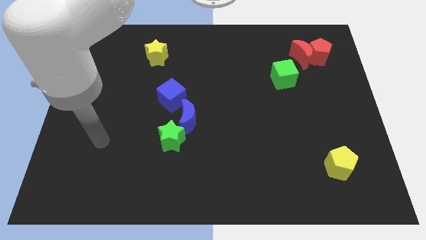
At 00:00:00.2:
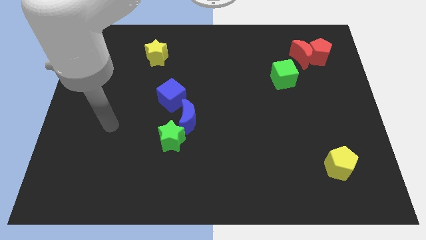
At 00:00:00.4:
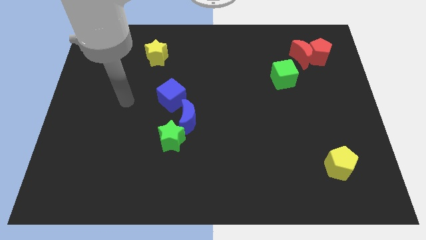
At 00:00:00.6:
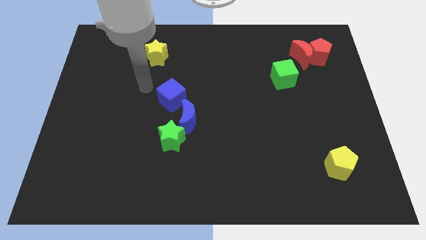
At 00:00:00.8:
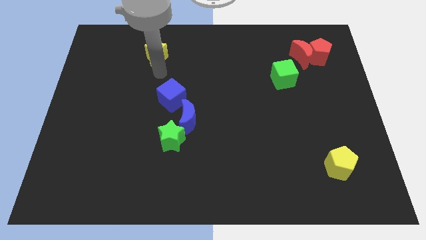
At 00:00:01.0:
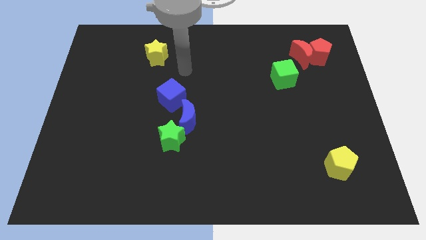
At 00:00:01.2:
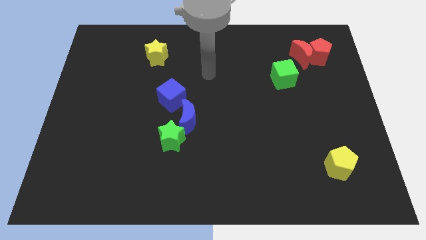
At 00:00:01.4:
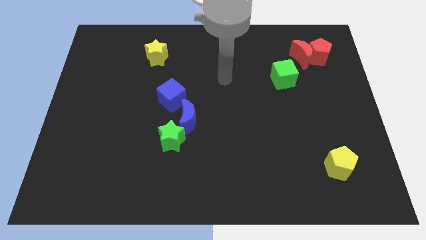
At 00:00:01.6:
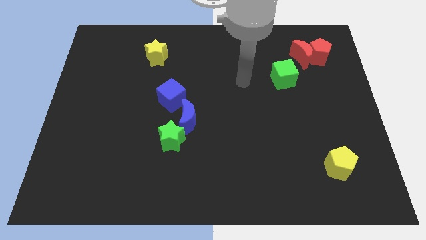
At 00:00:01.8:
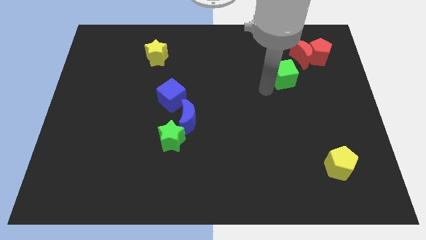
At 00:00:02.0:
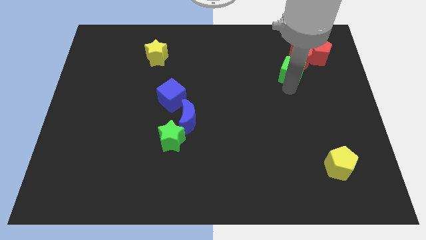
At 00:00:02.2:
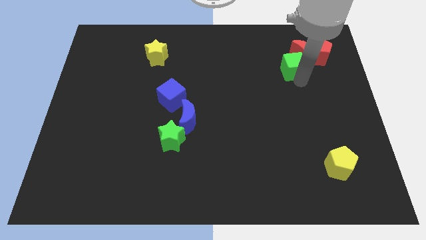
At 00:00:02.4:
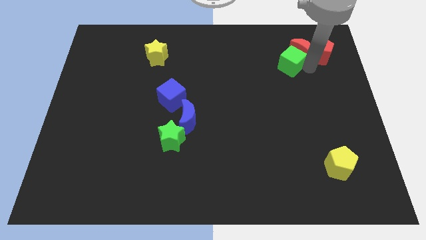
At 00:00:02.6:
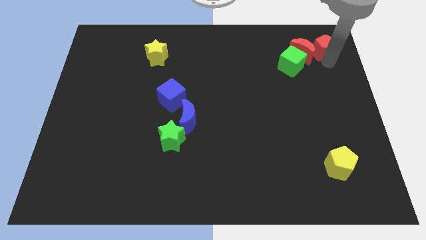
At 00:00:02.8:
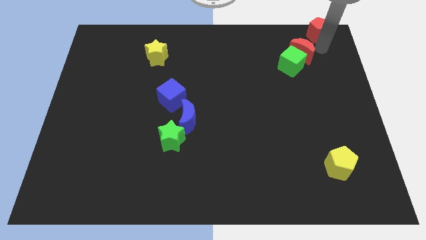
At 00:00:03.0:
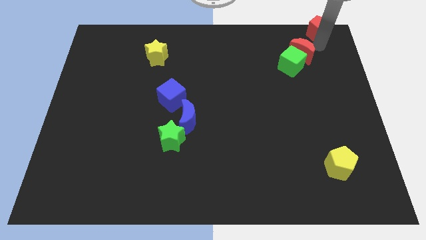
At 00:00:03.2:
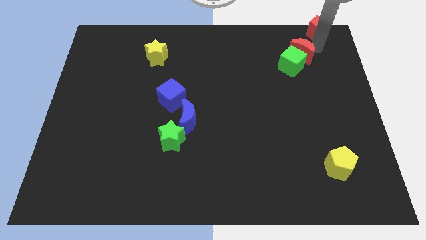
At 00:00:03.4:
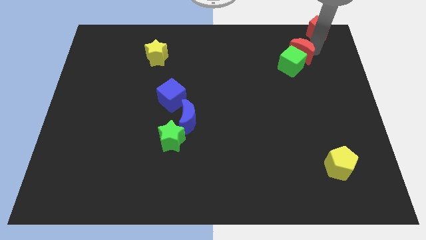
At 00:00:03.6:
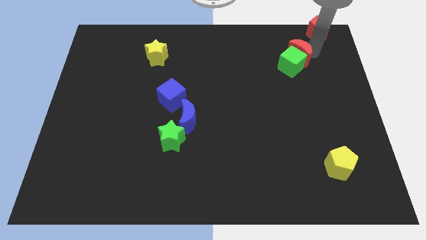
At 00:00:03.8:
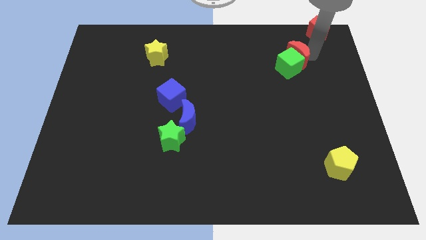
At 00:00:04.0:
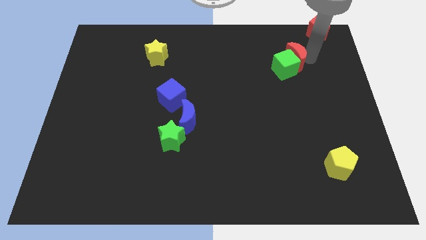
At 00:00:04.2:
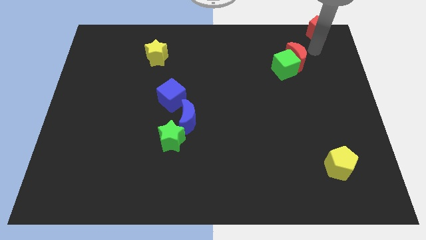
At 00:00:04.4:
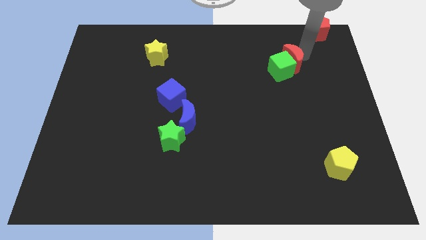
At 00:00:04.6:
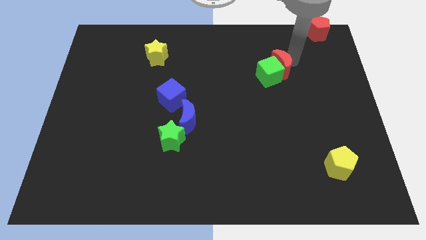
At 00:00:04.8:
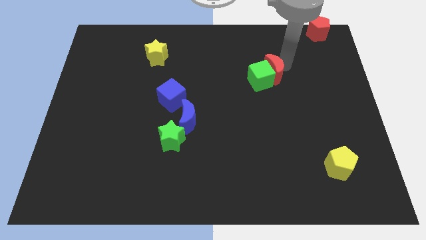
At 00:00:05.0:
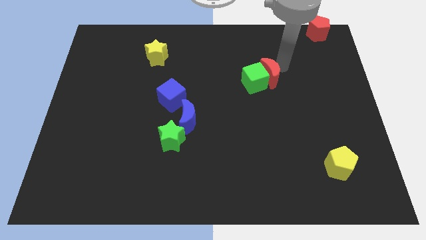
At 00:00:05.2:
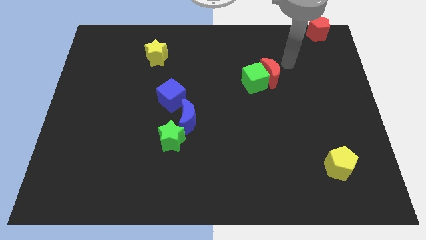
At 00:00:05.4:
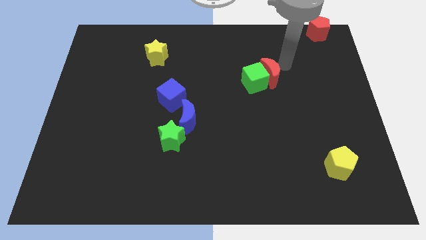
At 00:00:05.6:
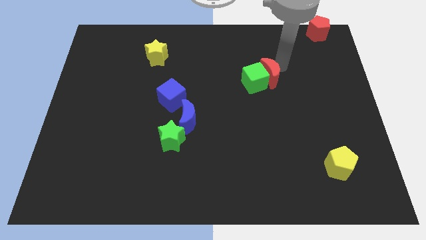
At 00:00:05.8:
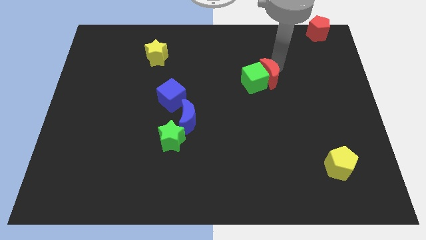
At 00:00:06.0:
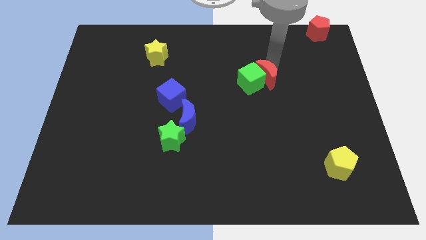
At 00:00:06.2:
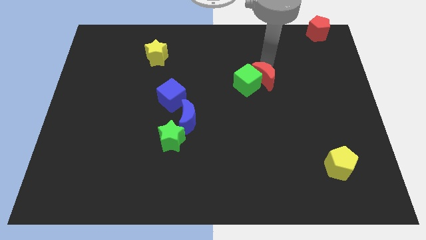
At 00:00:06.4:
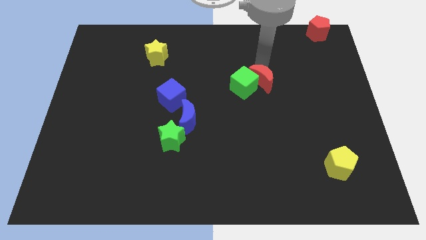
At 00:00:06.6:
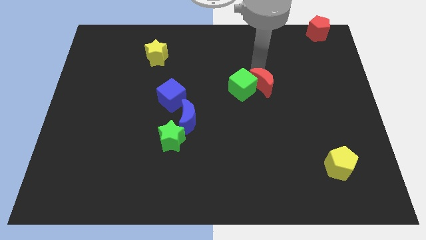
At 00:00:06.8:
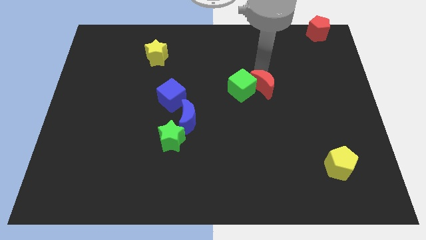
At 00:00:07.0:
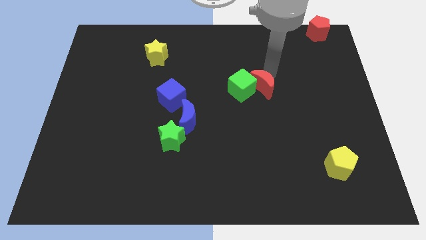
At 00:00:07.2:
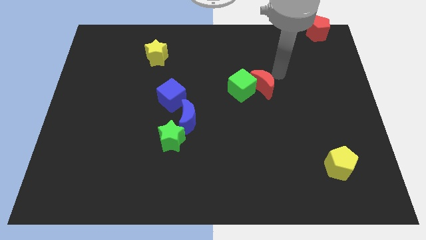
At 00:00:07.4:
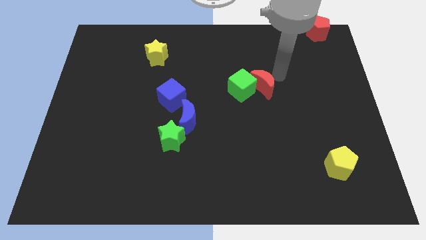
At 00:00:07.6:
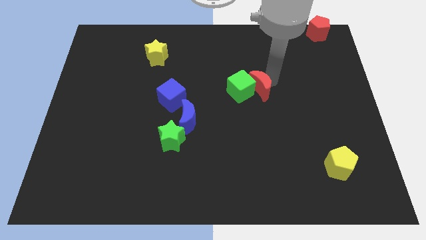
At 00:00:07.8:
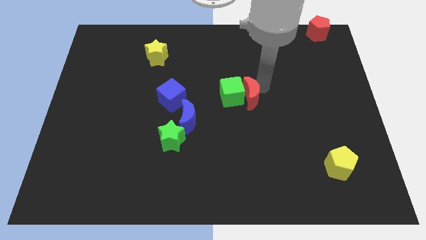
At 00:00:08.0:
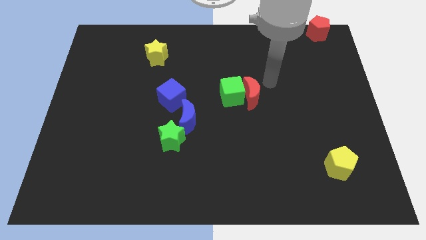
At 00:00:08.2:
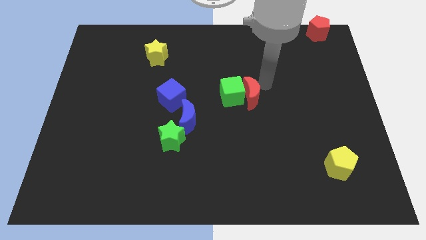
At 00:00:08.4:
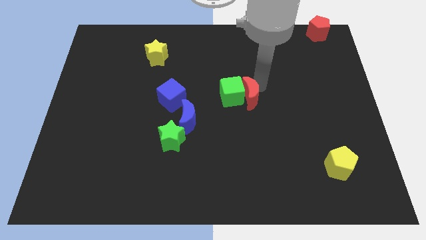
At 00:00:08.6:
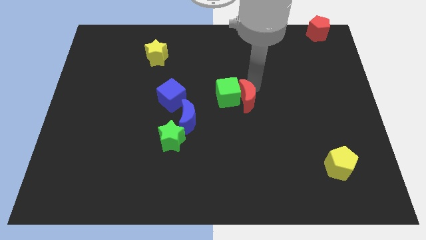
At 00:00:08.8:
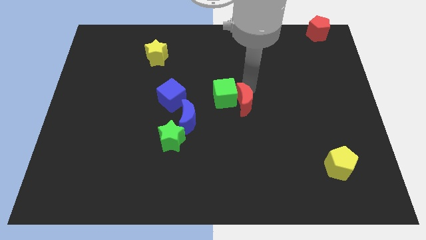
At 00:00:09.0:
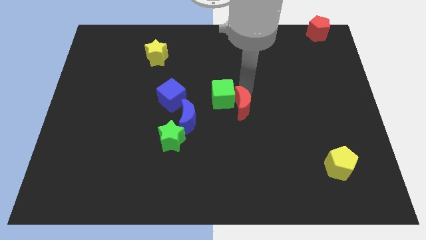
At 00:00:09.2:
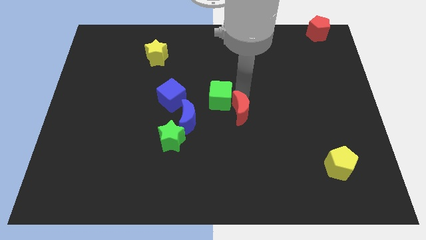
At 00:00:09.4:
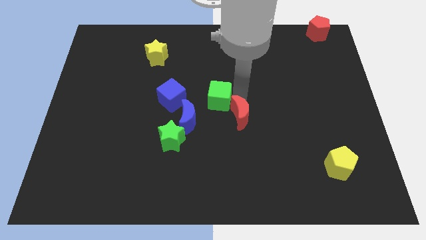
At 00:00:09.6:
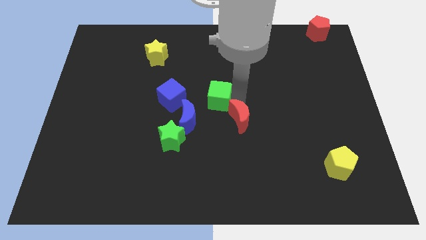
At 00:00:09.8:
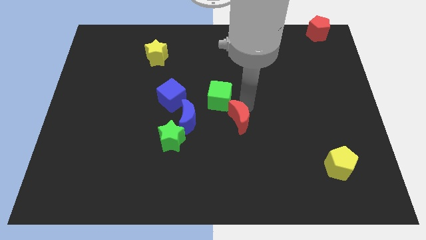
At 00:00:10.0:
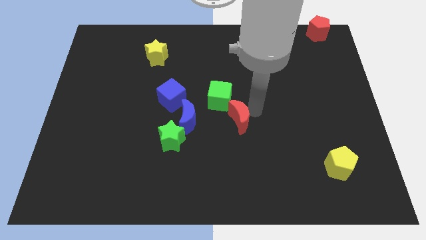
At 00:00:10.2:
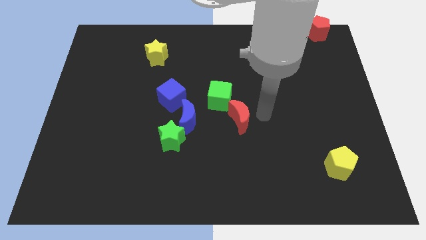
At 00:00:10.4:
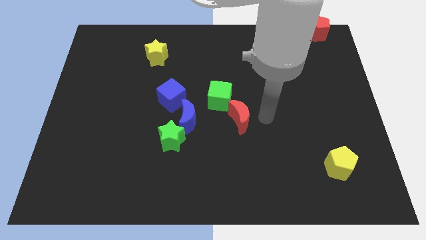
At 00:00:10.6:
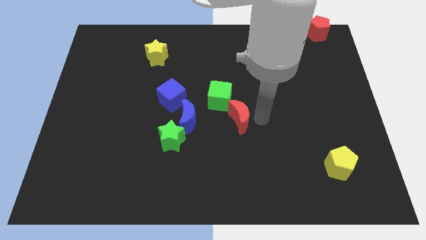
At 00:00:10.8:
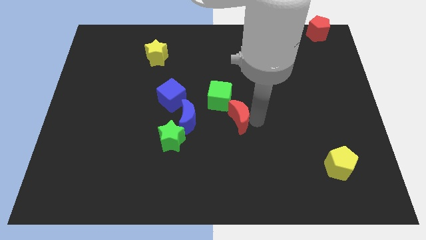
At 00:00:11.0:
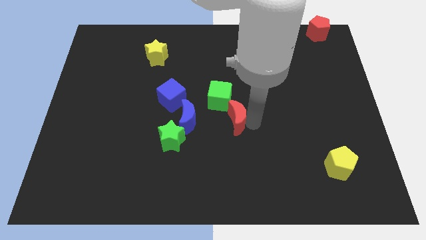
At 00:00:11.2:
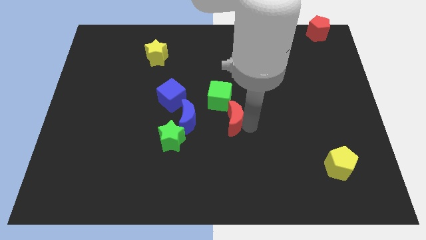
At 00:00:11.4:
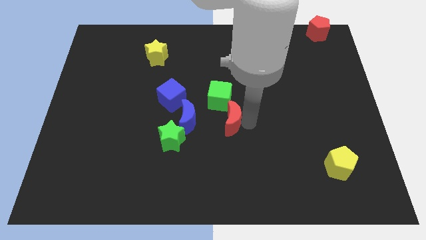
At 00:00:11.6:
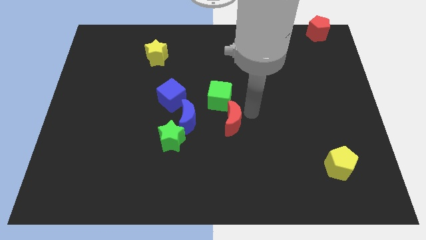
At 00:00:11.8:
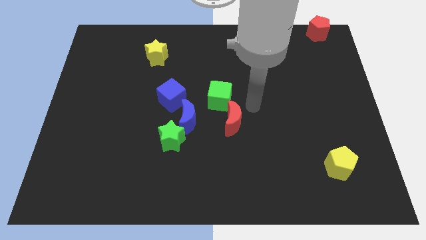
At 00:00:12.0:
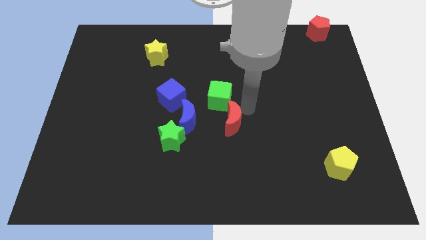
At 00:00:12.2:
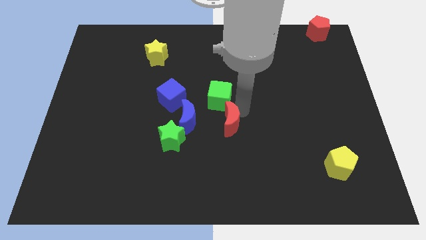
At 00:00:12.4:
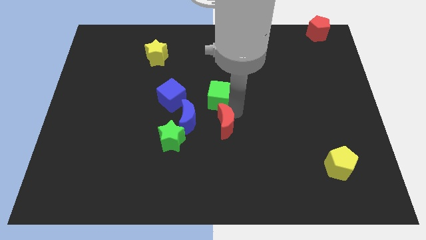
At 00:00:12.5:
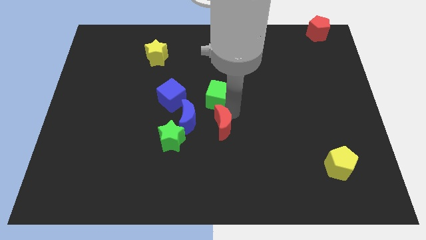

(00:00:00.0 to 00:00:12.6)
move the red moon diagonally down and to the right of the blue moon
